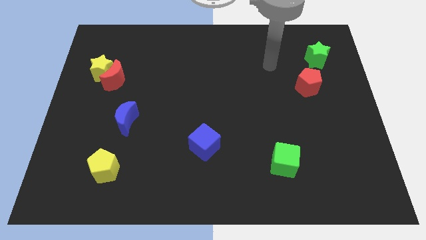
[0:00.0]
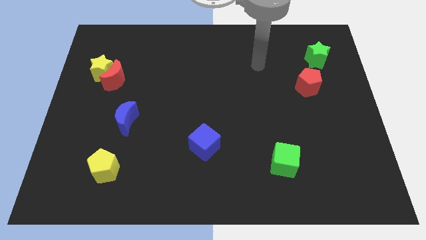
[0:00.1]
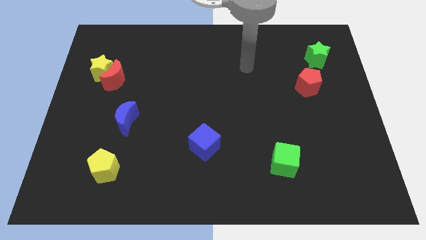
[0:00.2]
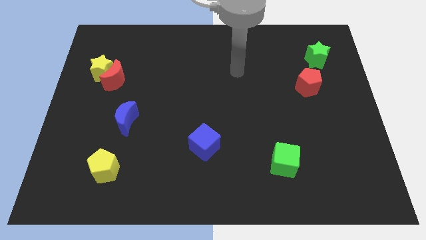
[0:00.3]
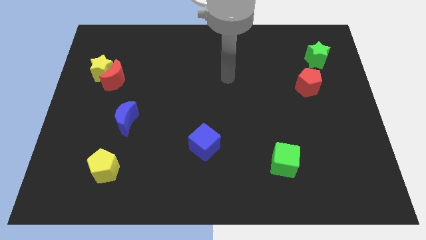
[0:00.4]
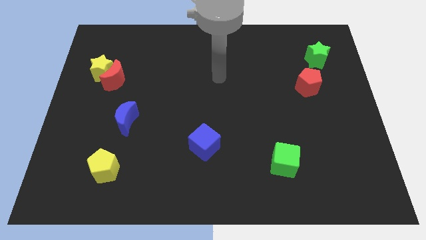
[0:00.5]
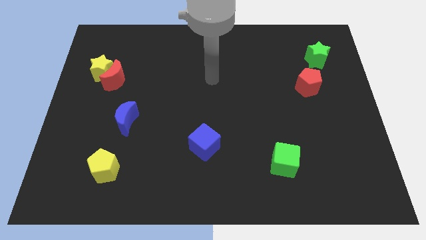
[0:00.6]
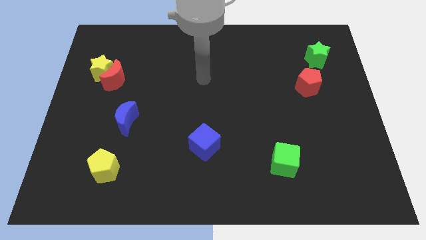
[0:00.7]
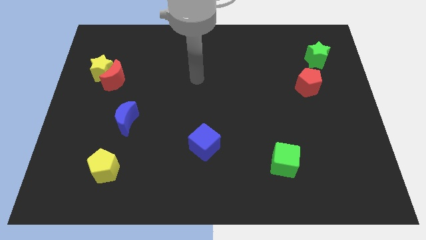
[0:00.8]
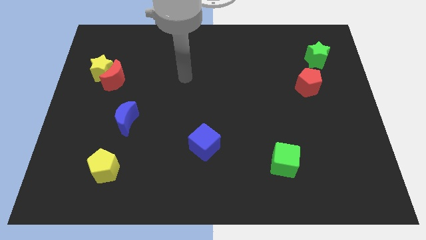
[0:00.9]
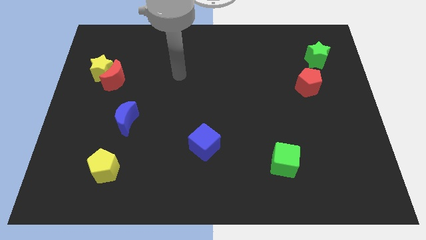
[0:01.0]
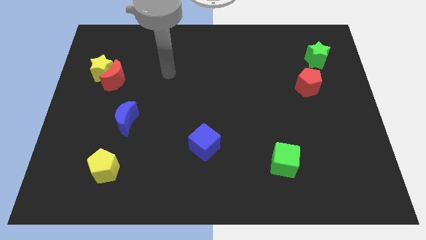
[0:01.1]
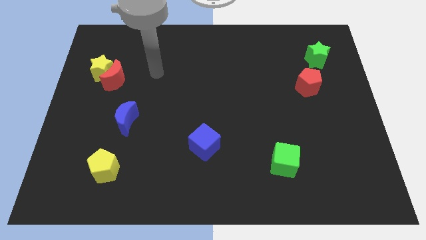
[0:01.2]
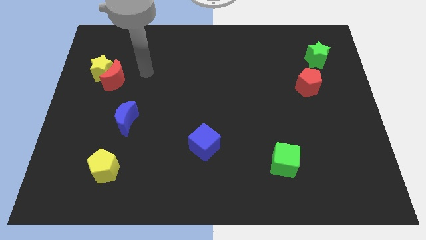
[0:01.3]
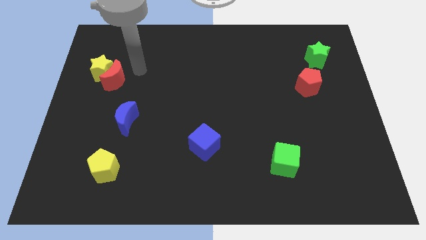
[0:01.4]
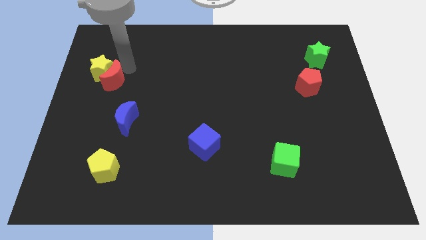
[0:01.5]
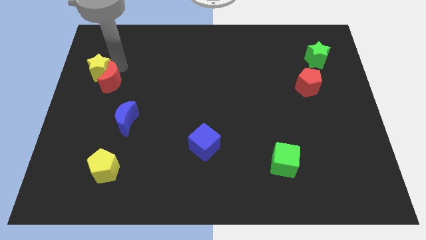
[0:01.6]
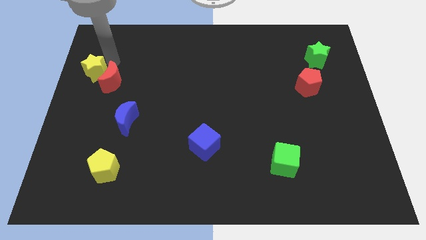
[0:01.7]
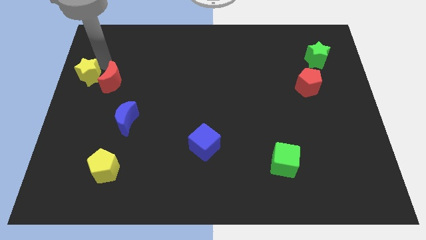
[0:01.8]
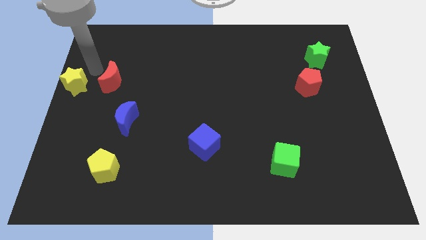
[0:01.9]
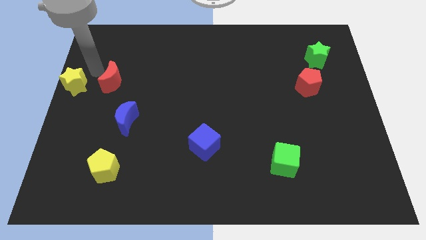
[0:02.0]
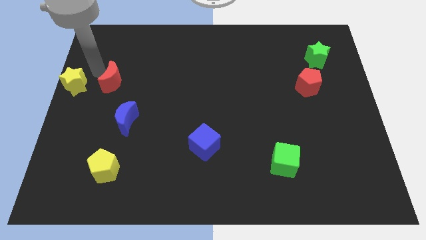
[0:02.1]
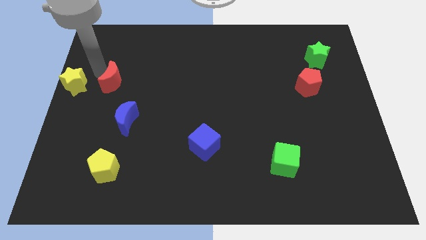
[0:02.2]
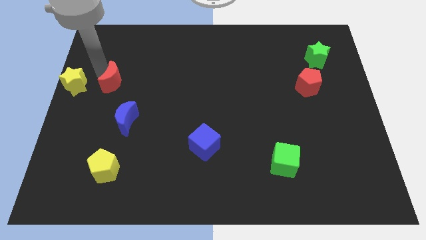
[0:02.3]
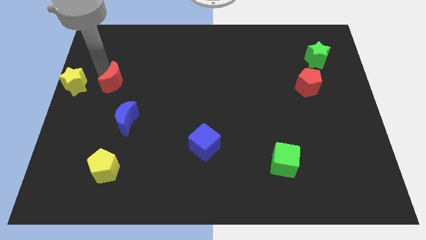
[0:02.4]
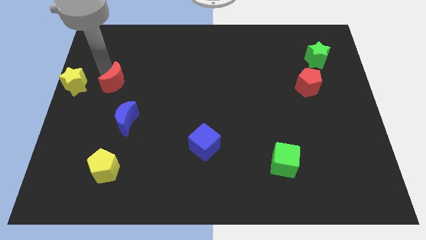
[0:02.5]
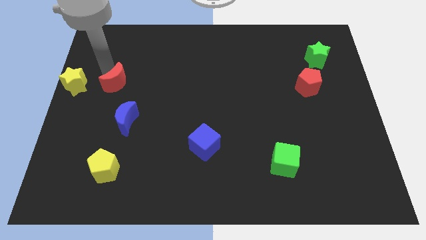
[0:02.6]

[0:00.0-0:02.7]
pull the red moon apart from the yellow star

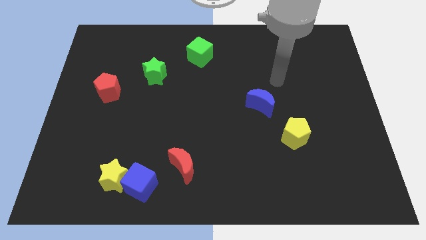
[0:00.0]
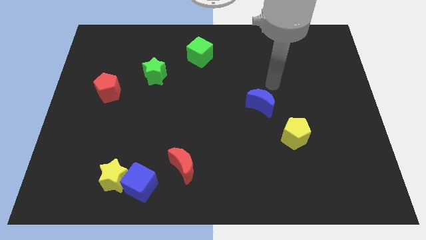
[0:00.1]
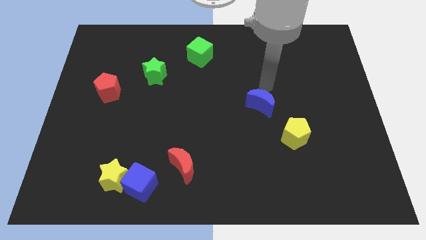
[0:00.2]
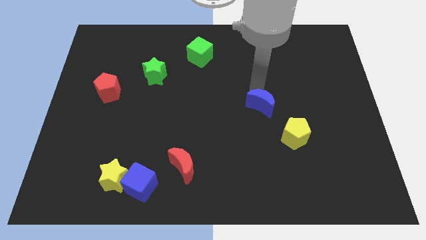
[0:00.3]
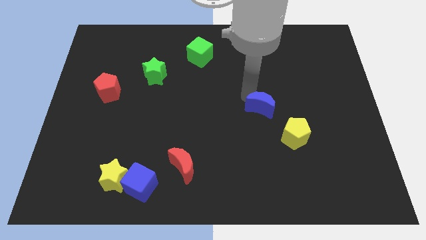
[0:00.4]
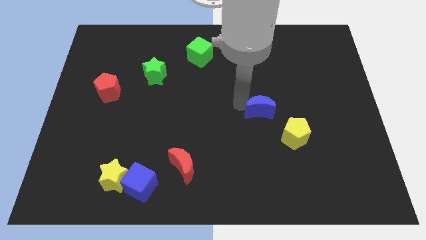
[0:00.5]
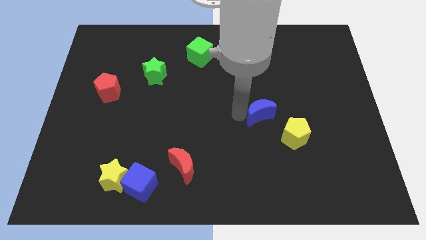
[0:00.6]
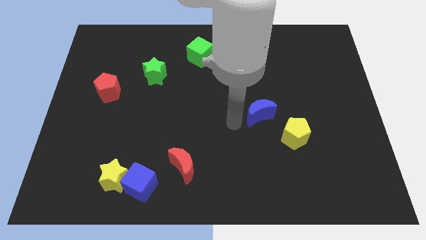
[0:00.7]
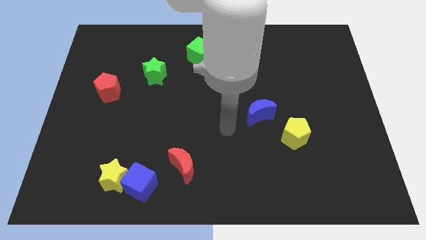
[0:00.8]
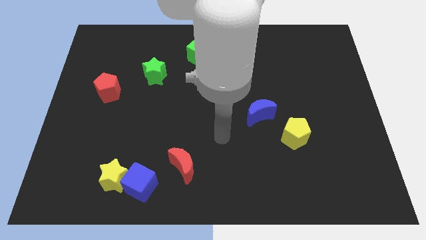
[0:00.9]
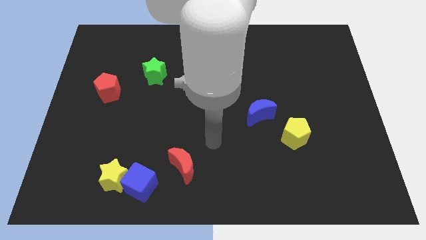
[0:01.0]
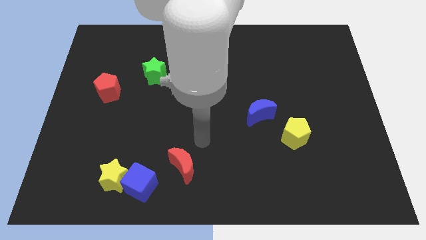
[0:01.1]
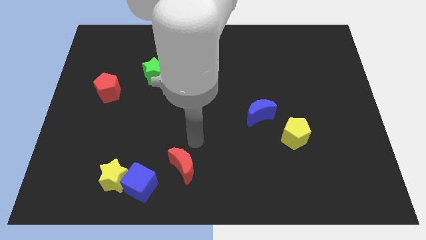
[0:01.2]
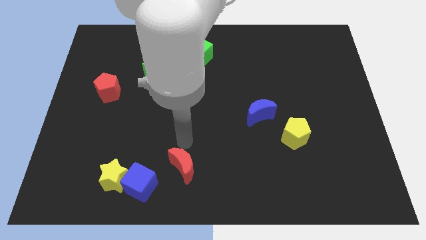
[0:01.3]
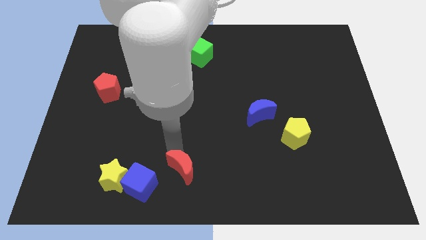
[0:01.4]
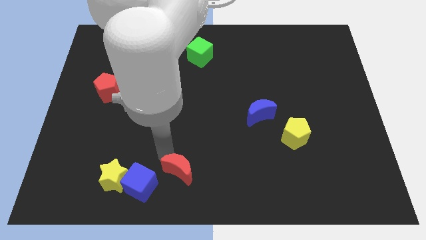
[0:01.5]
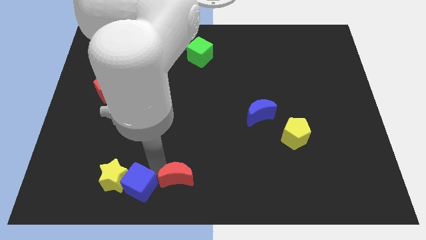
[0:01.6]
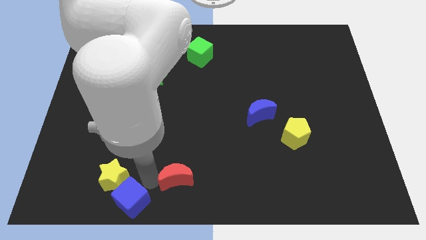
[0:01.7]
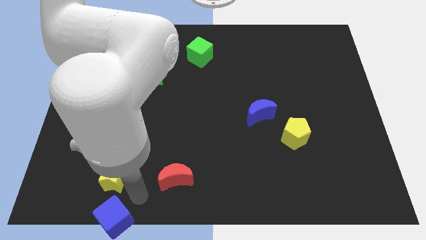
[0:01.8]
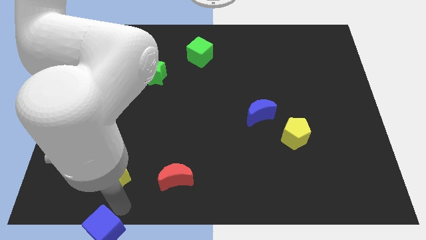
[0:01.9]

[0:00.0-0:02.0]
pull the yellow star apart from the blue cube

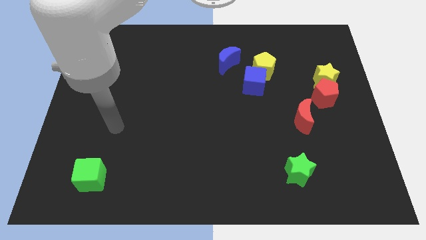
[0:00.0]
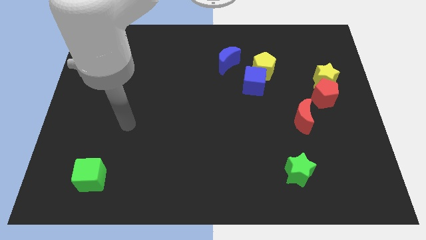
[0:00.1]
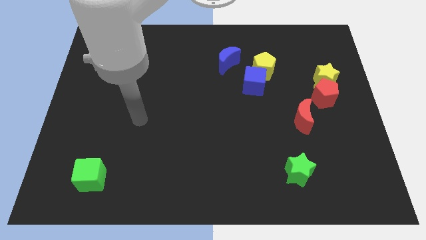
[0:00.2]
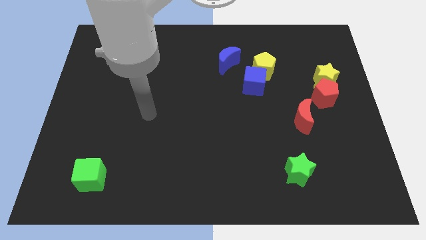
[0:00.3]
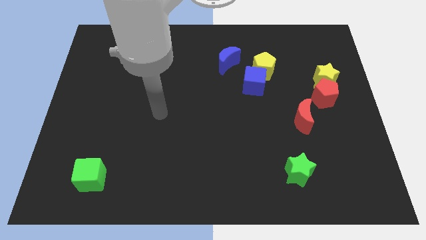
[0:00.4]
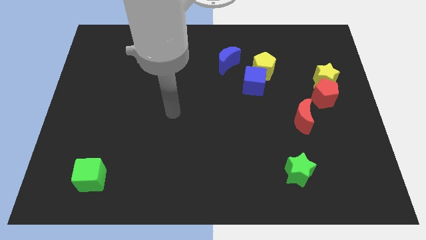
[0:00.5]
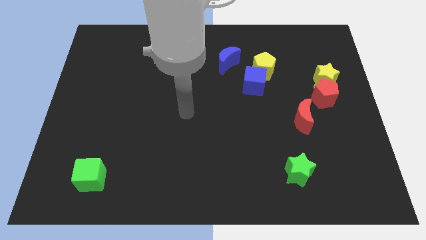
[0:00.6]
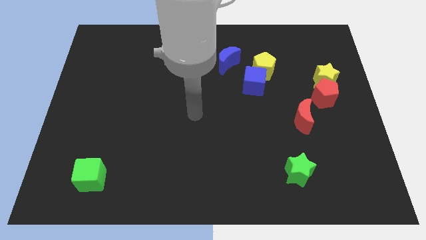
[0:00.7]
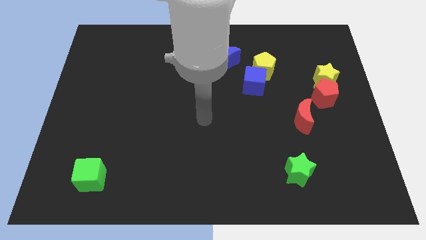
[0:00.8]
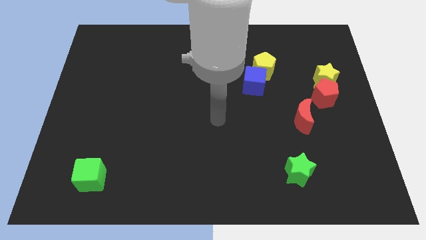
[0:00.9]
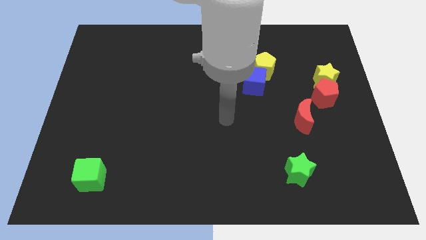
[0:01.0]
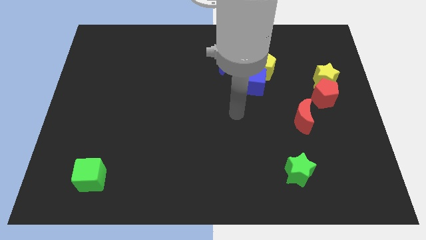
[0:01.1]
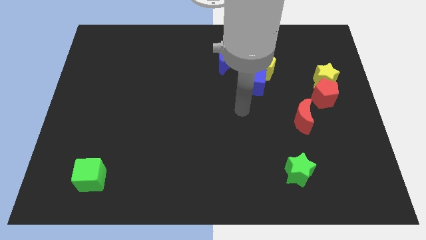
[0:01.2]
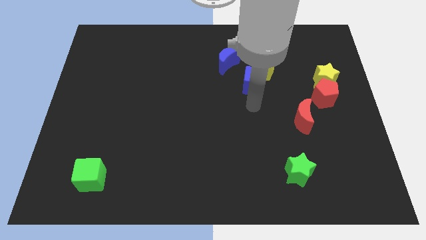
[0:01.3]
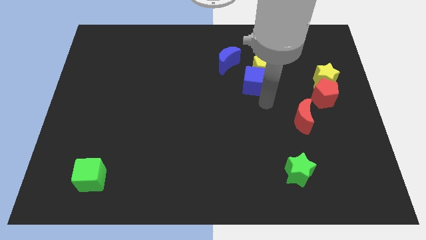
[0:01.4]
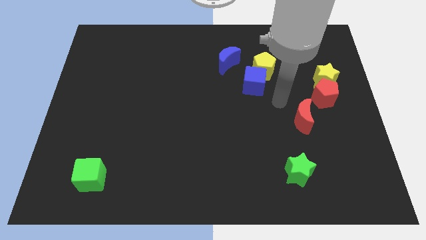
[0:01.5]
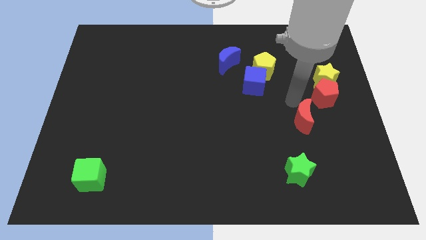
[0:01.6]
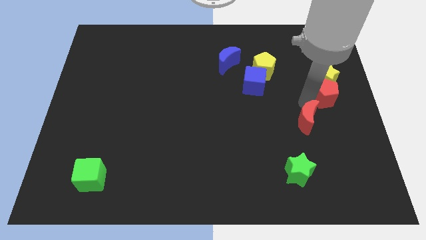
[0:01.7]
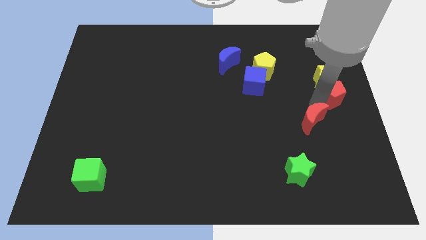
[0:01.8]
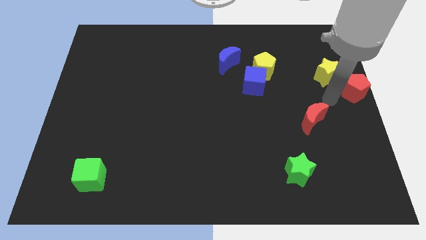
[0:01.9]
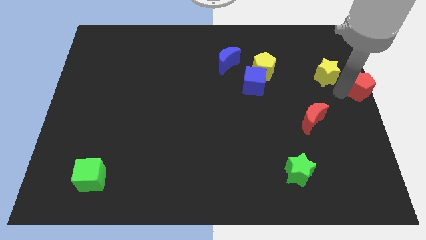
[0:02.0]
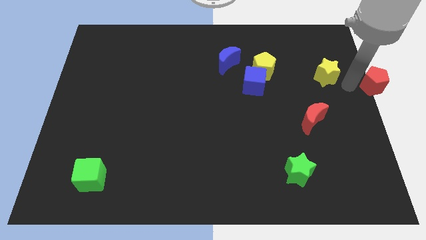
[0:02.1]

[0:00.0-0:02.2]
pull the yellow star apart from the red pentagon

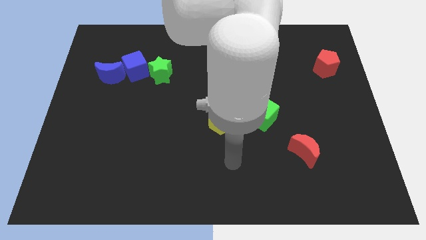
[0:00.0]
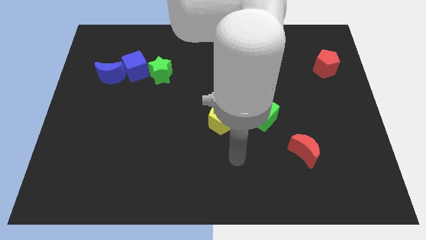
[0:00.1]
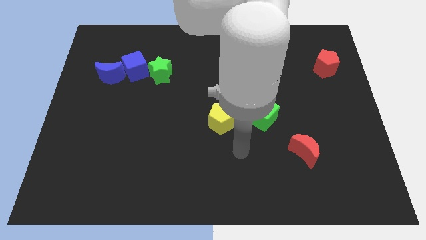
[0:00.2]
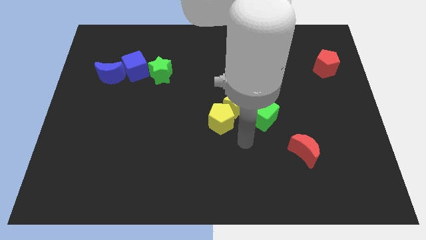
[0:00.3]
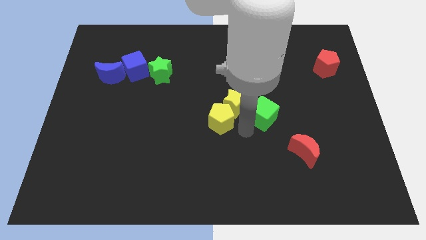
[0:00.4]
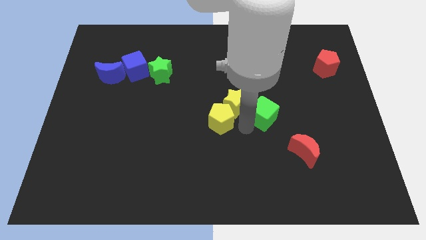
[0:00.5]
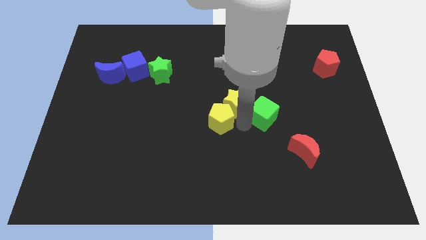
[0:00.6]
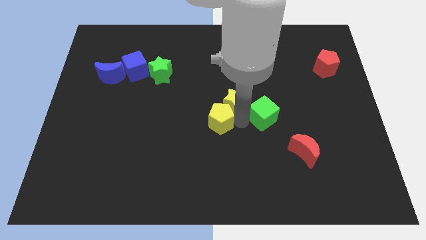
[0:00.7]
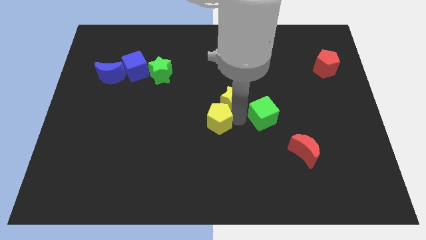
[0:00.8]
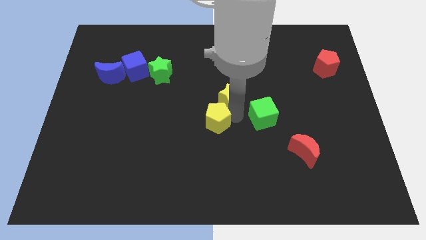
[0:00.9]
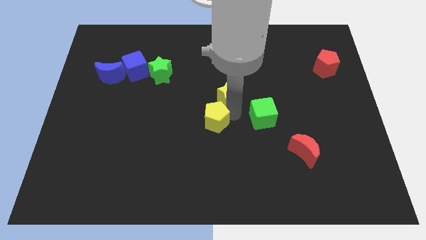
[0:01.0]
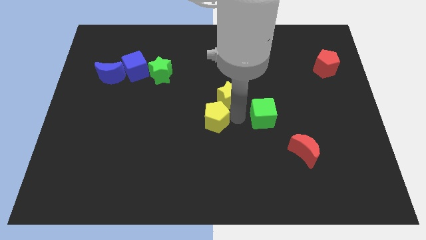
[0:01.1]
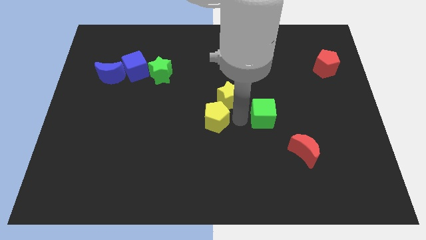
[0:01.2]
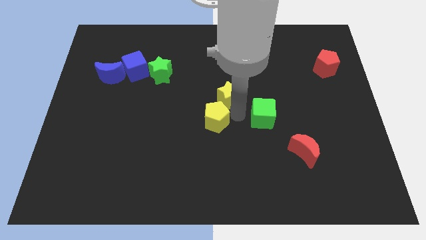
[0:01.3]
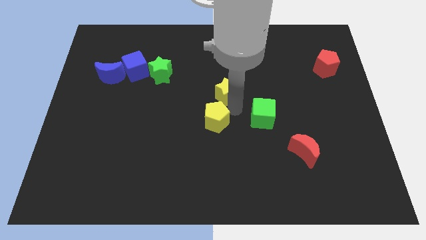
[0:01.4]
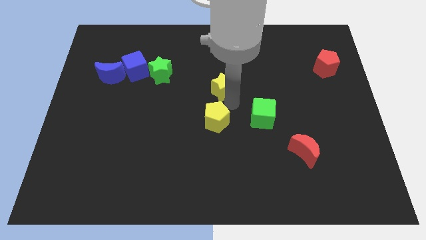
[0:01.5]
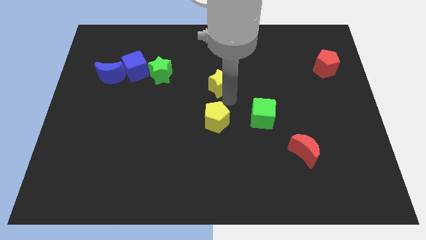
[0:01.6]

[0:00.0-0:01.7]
move the yellow star away from the yellow pentagon and green cube

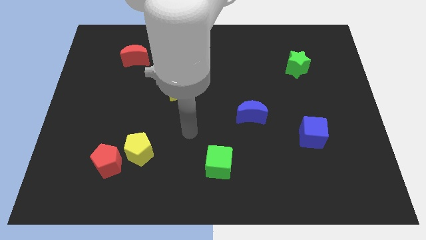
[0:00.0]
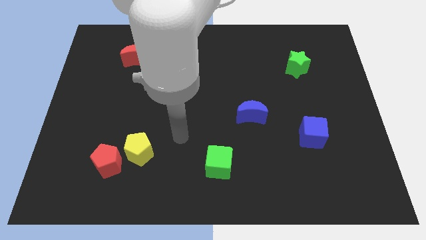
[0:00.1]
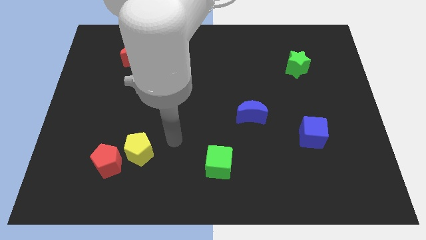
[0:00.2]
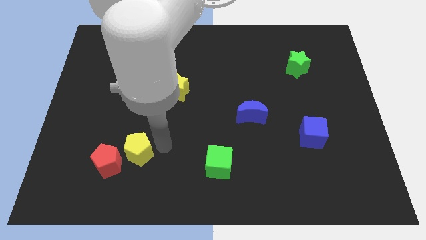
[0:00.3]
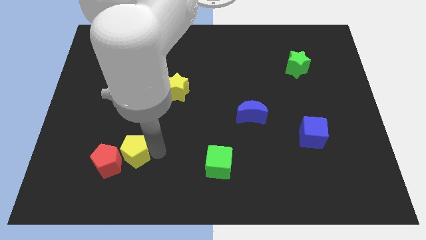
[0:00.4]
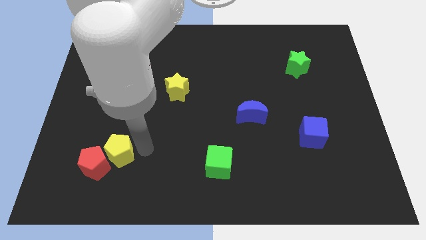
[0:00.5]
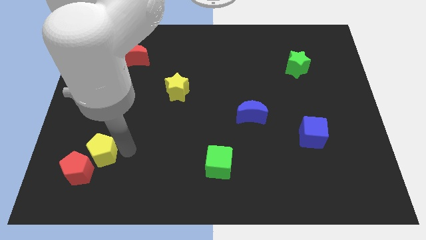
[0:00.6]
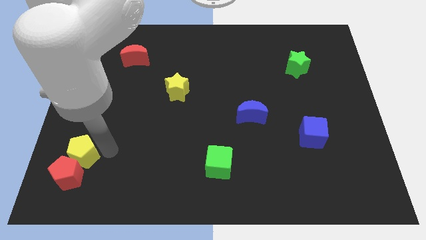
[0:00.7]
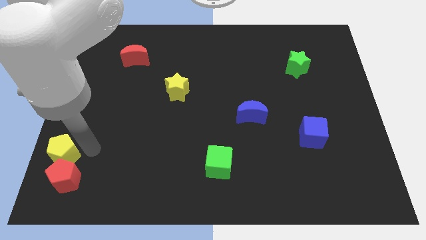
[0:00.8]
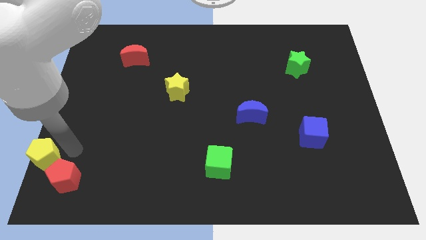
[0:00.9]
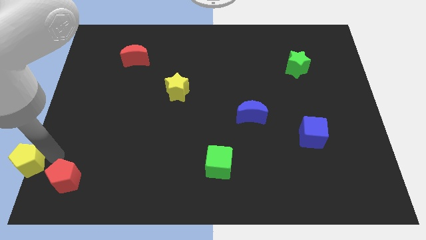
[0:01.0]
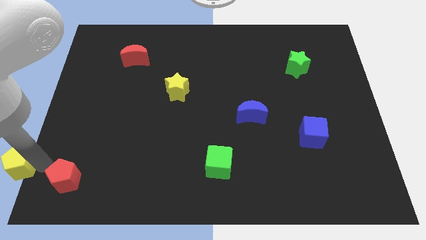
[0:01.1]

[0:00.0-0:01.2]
move the red pentagon away from the yellow pentagon
